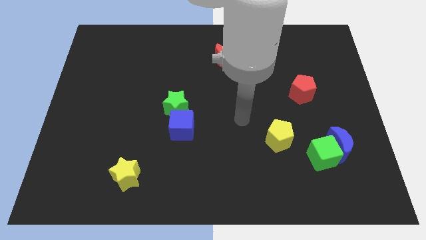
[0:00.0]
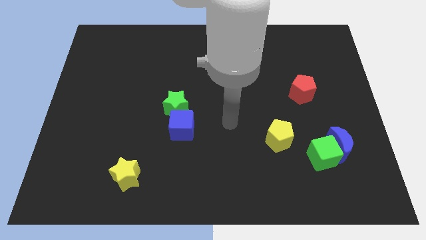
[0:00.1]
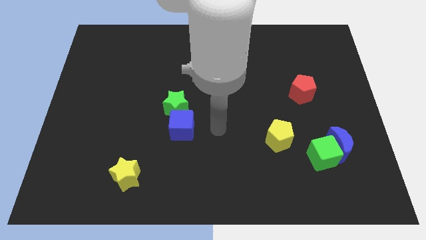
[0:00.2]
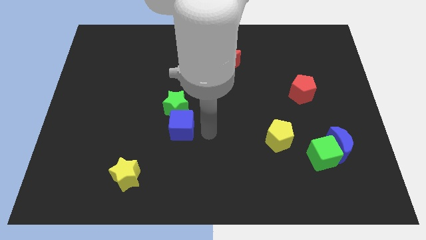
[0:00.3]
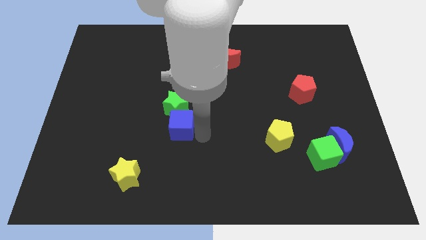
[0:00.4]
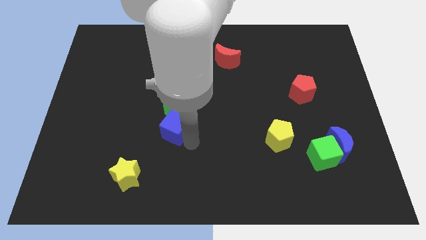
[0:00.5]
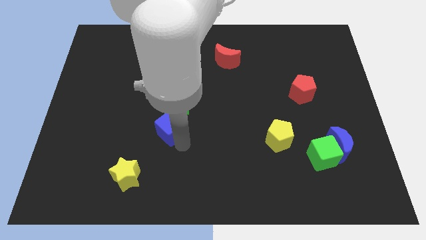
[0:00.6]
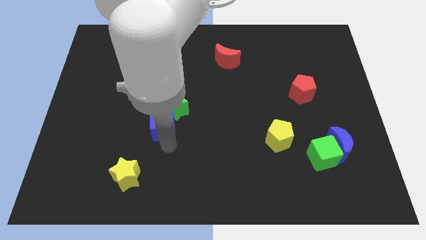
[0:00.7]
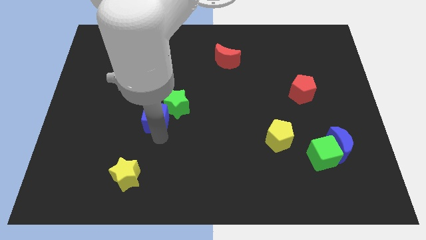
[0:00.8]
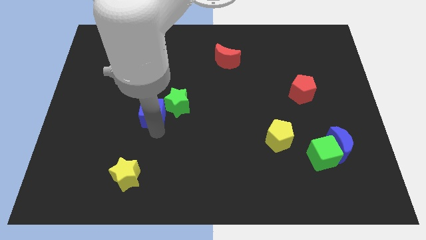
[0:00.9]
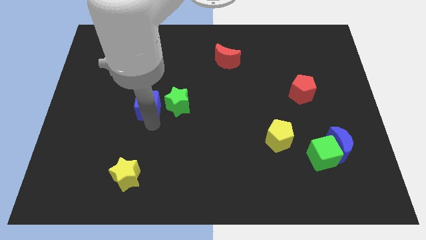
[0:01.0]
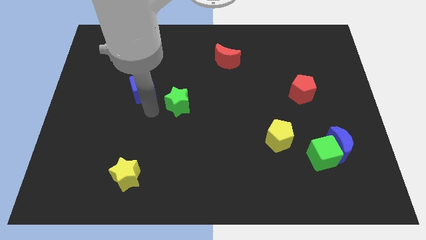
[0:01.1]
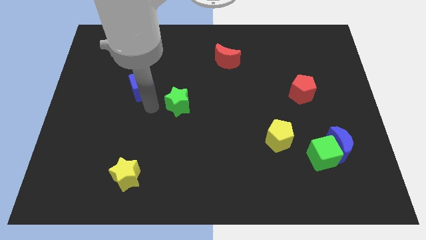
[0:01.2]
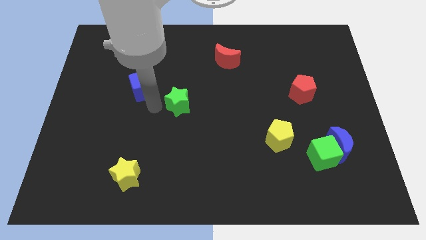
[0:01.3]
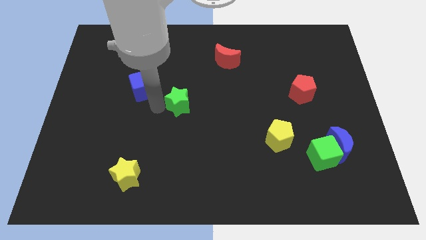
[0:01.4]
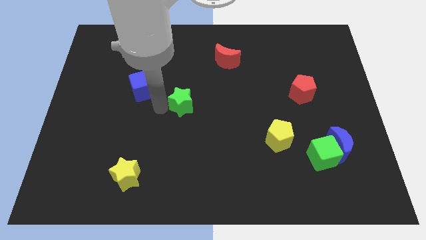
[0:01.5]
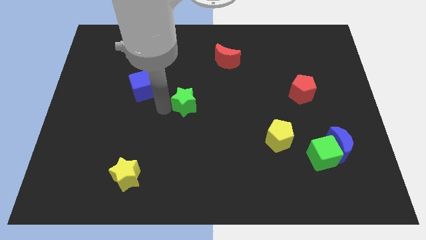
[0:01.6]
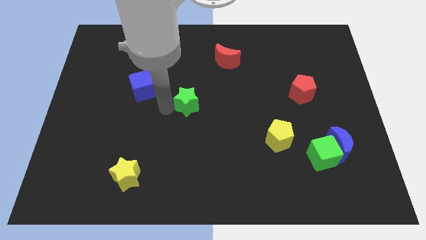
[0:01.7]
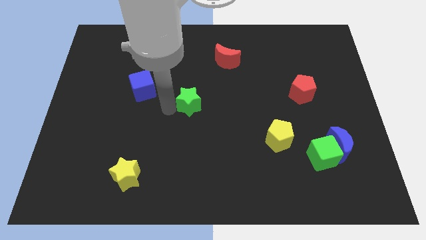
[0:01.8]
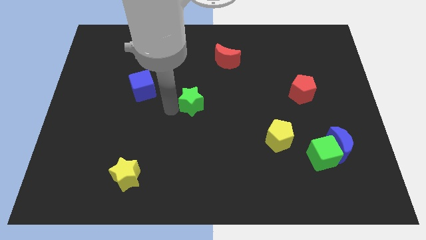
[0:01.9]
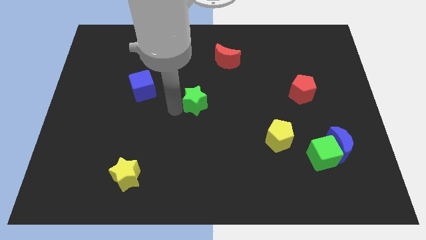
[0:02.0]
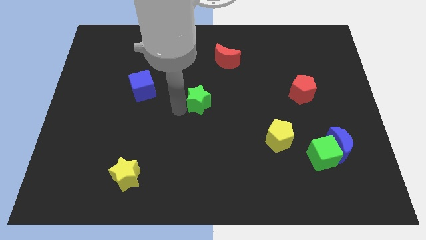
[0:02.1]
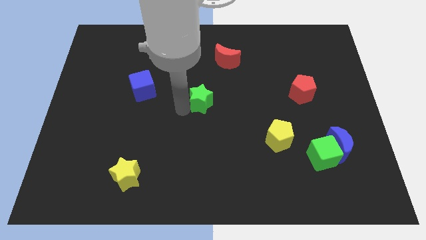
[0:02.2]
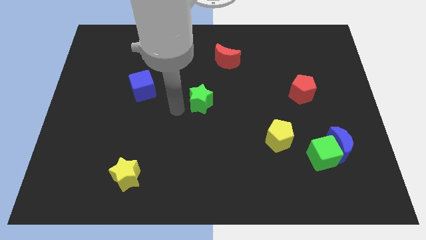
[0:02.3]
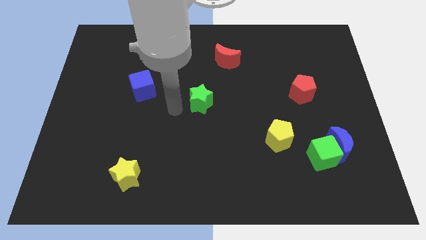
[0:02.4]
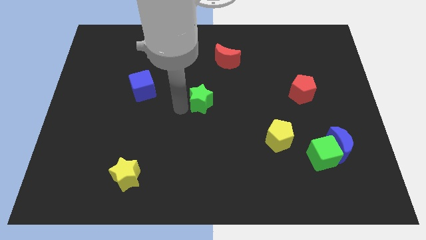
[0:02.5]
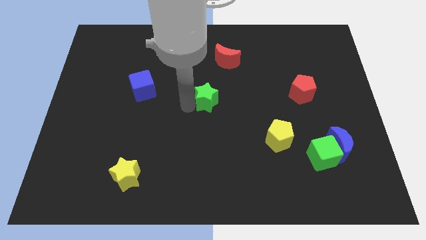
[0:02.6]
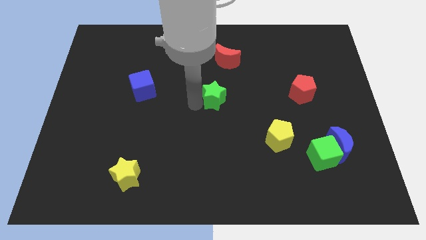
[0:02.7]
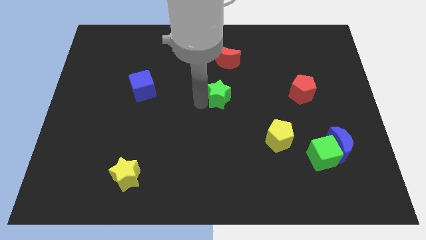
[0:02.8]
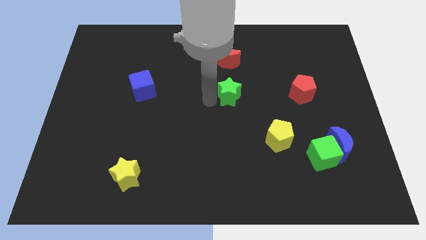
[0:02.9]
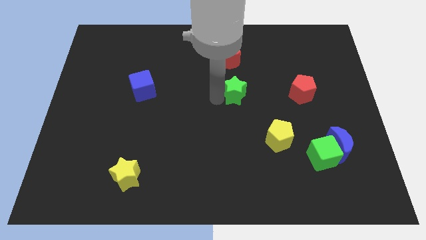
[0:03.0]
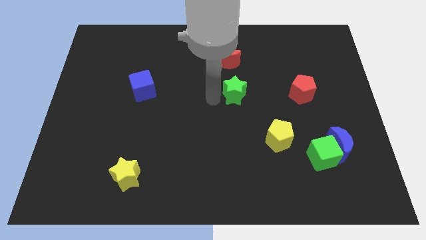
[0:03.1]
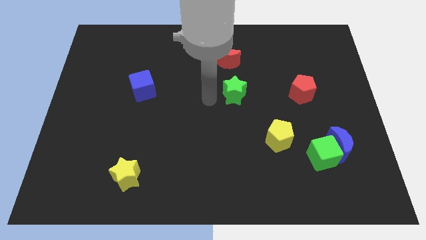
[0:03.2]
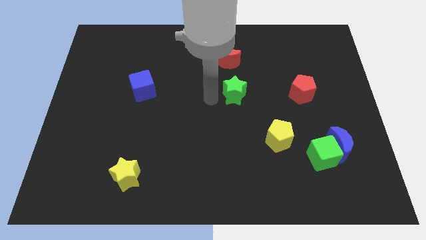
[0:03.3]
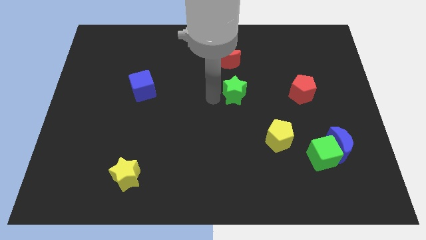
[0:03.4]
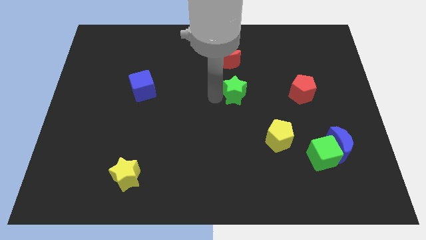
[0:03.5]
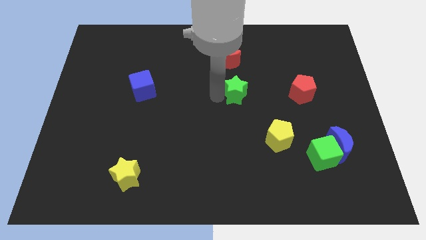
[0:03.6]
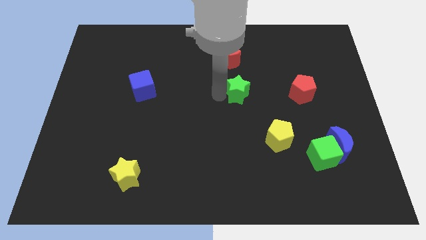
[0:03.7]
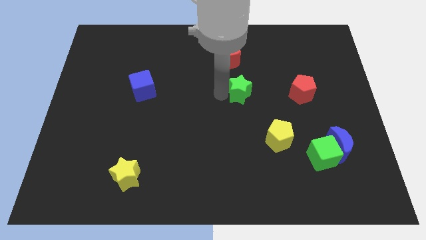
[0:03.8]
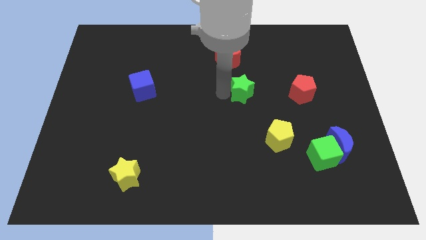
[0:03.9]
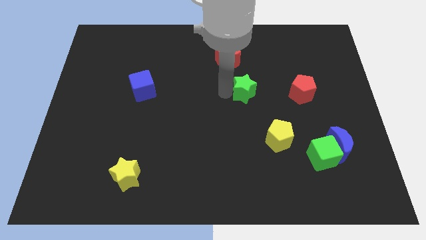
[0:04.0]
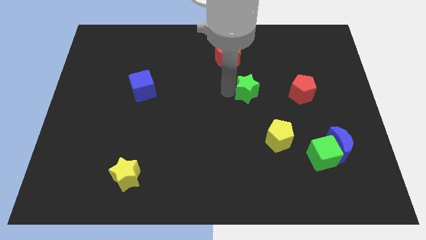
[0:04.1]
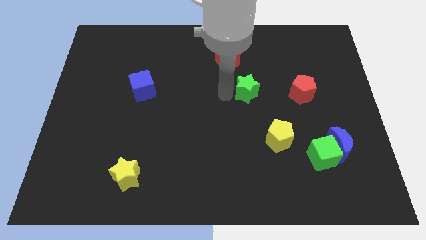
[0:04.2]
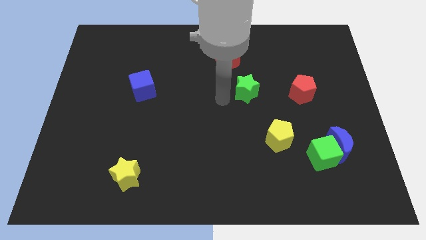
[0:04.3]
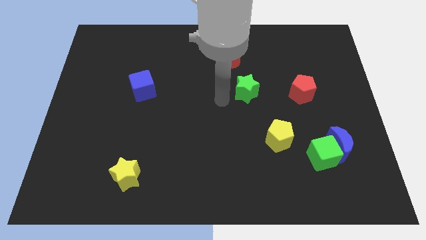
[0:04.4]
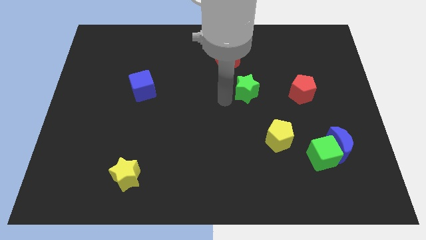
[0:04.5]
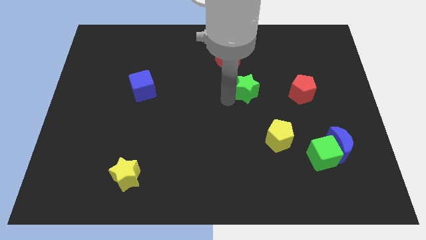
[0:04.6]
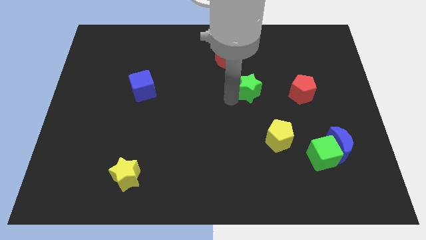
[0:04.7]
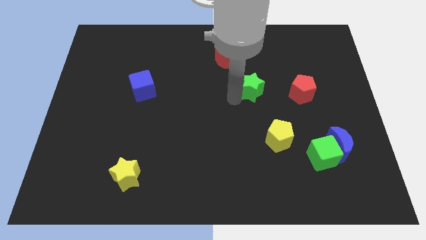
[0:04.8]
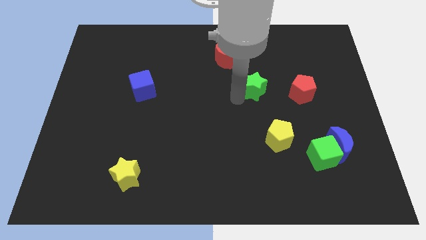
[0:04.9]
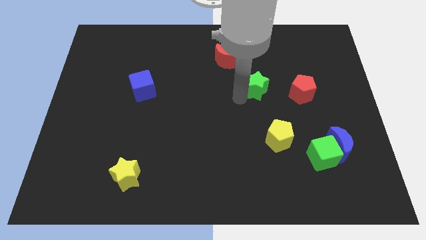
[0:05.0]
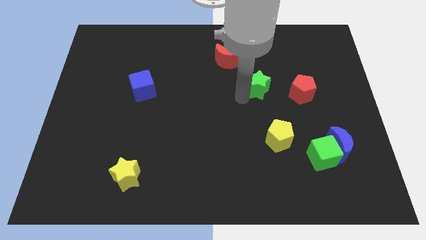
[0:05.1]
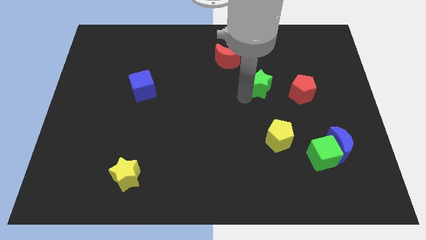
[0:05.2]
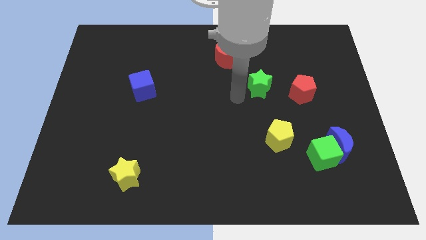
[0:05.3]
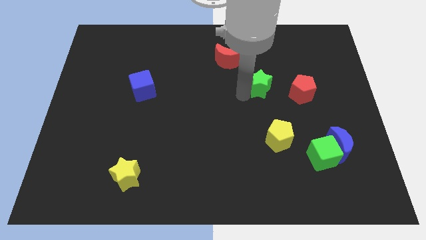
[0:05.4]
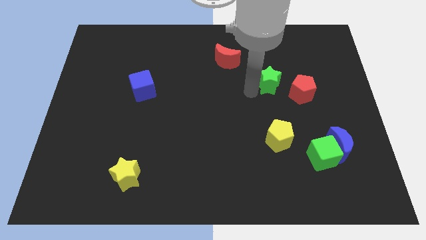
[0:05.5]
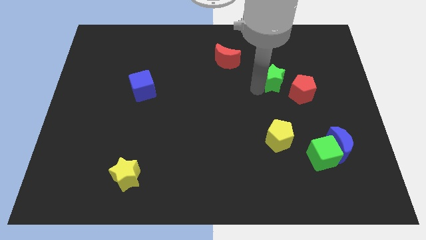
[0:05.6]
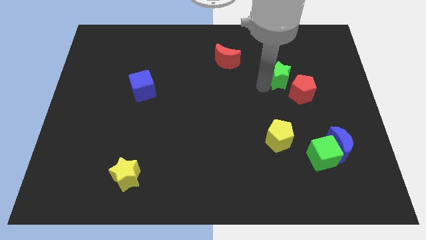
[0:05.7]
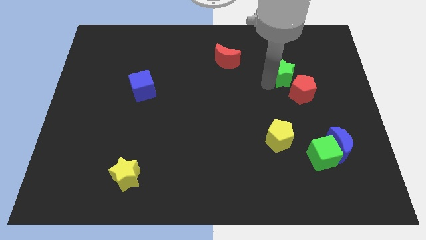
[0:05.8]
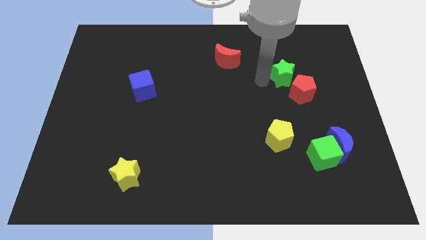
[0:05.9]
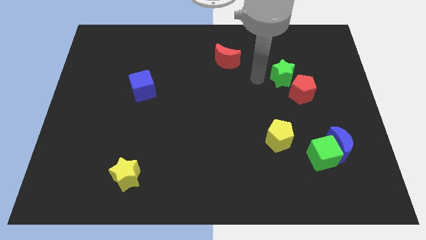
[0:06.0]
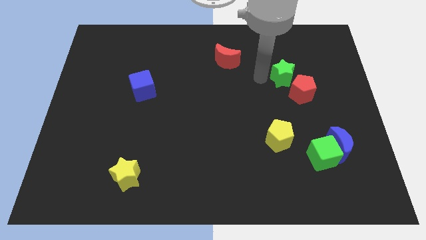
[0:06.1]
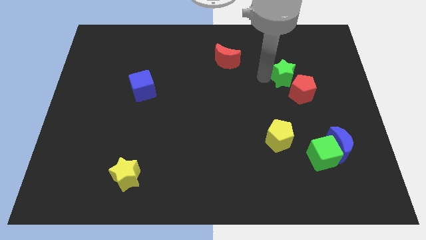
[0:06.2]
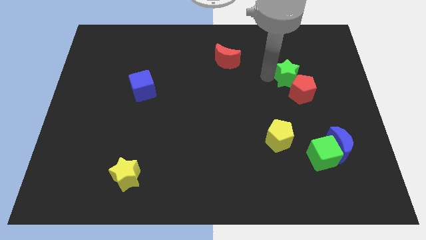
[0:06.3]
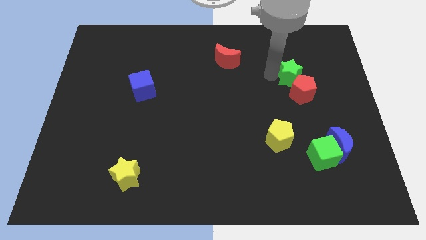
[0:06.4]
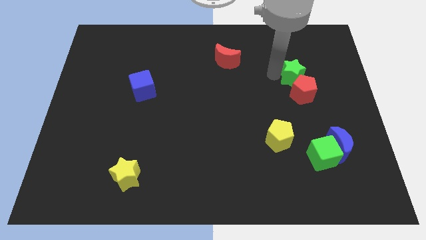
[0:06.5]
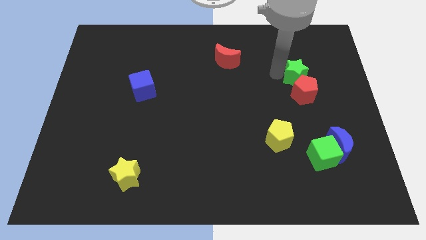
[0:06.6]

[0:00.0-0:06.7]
push the green star diagonally up and to the right of the red pentagon

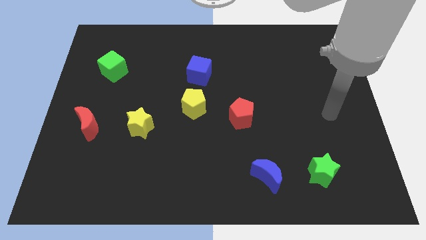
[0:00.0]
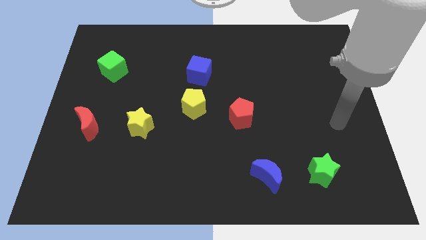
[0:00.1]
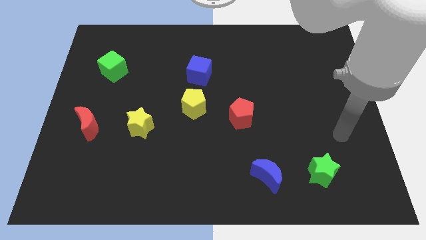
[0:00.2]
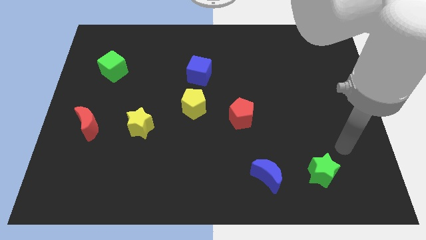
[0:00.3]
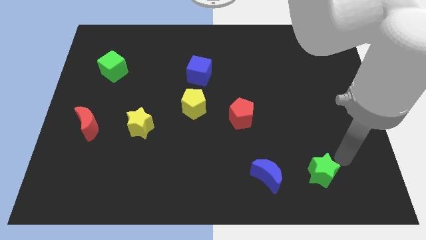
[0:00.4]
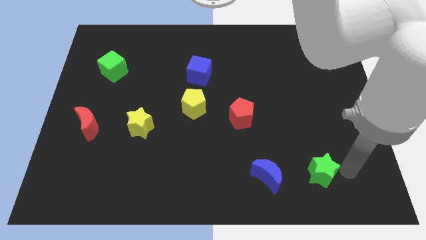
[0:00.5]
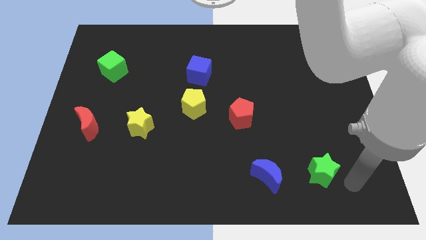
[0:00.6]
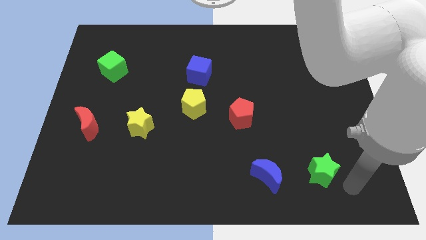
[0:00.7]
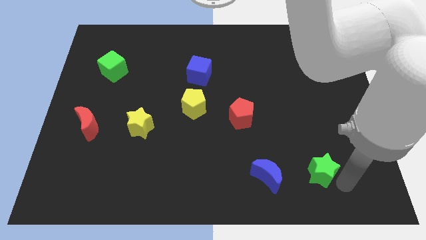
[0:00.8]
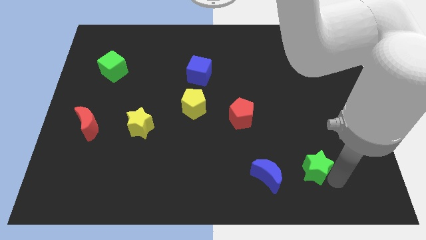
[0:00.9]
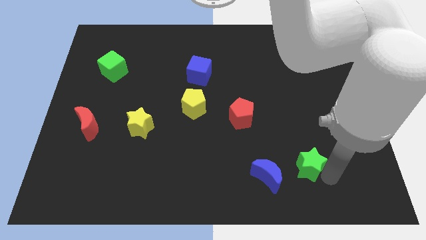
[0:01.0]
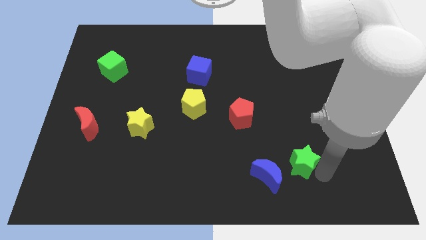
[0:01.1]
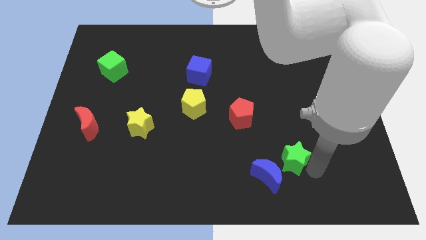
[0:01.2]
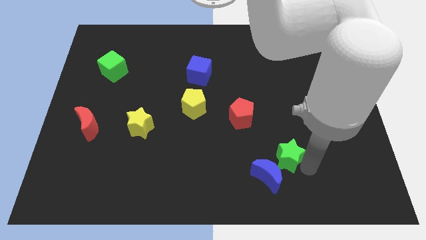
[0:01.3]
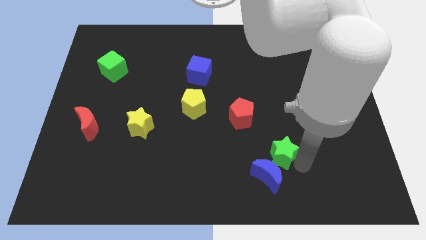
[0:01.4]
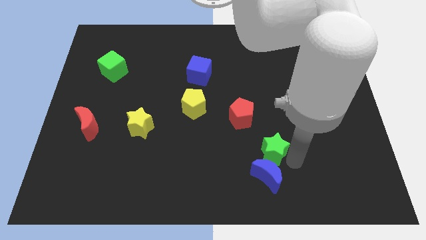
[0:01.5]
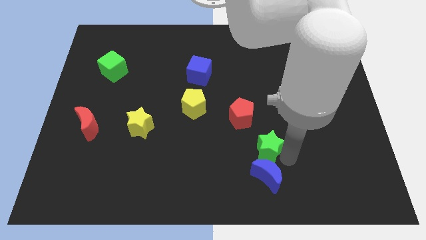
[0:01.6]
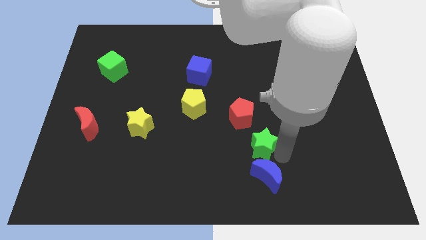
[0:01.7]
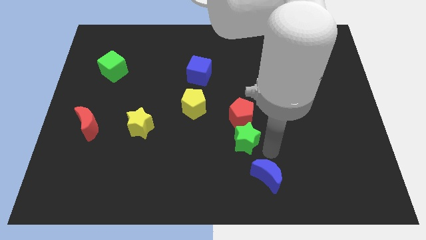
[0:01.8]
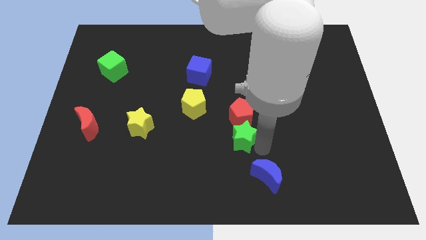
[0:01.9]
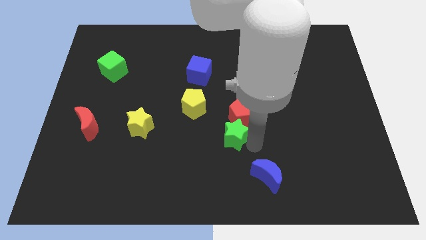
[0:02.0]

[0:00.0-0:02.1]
push the green star to the bottom right of the yellow pentagon
